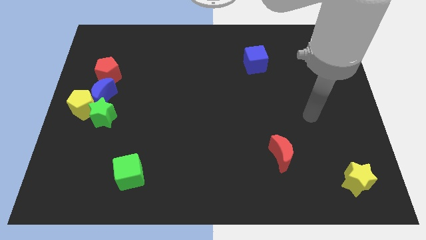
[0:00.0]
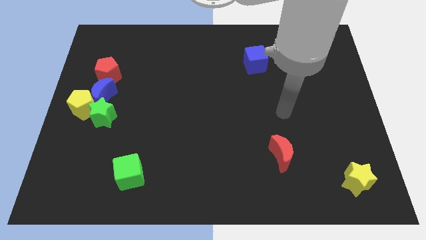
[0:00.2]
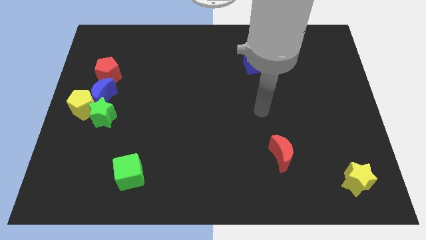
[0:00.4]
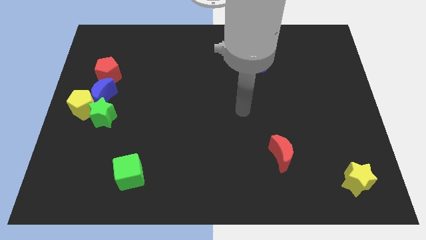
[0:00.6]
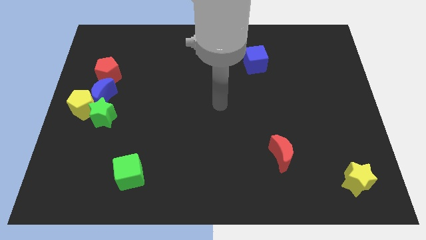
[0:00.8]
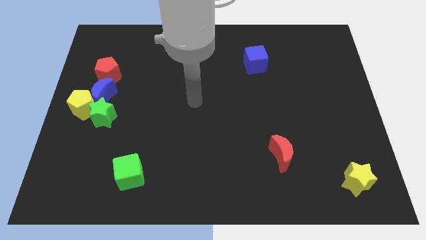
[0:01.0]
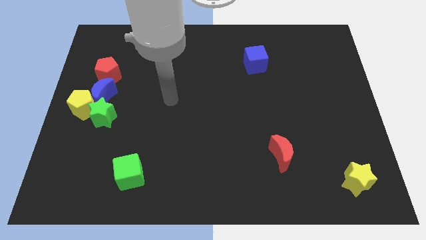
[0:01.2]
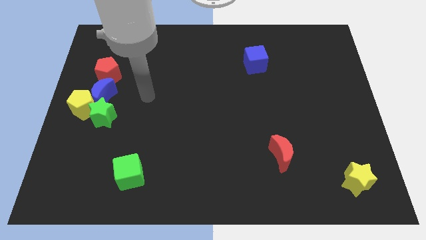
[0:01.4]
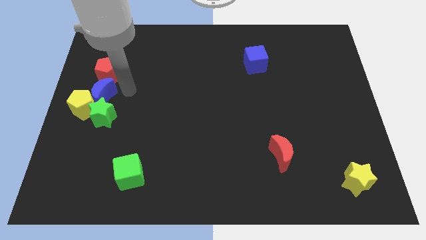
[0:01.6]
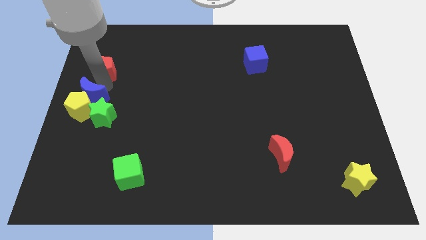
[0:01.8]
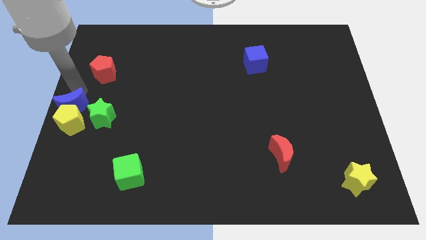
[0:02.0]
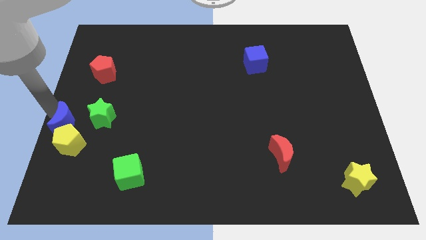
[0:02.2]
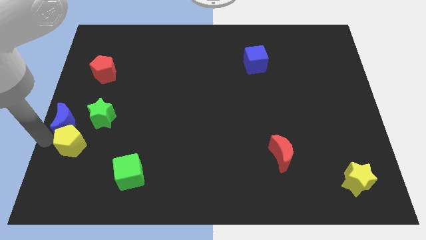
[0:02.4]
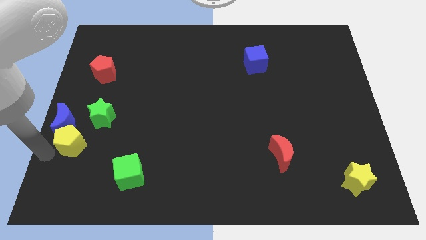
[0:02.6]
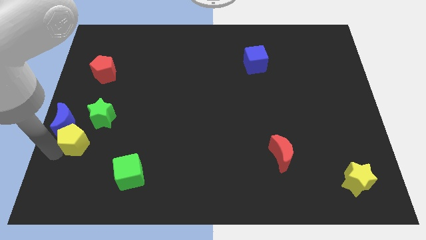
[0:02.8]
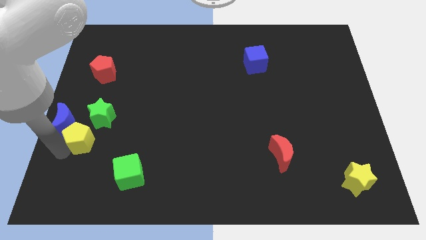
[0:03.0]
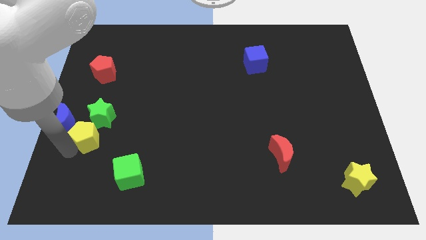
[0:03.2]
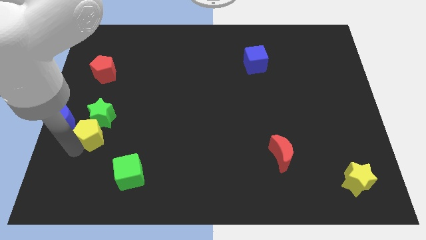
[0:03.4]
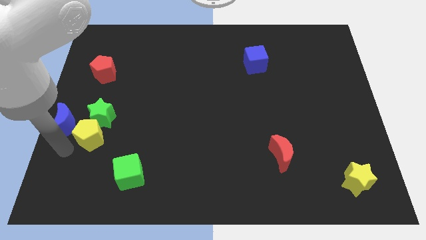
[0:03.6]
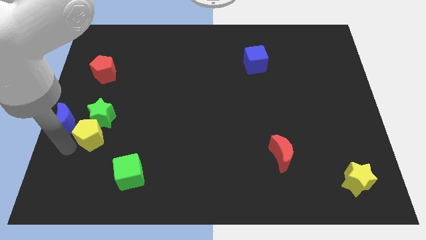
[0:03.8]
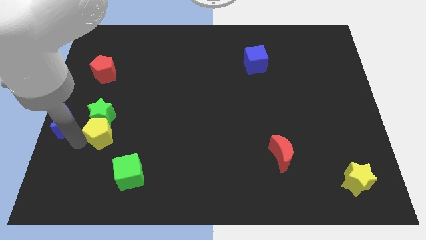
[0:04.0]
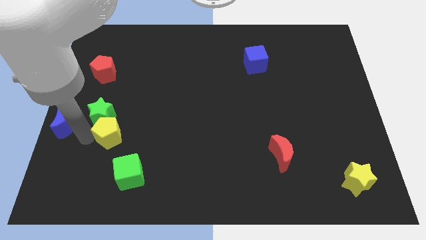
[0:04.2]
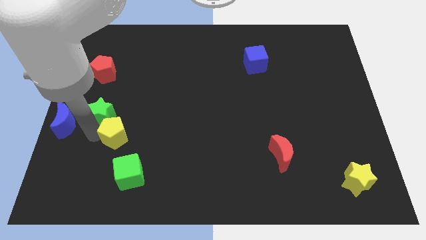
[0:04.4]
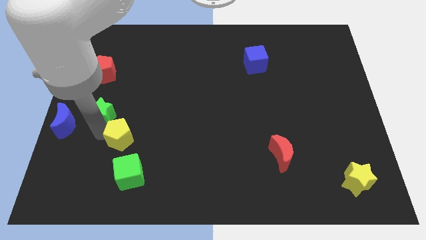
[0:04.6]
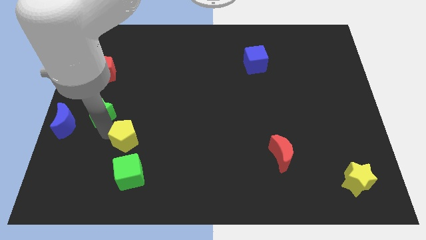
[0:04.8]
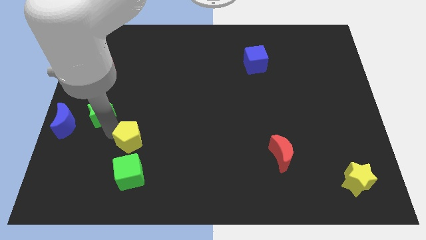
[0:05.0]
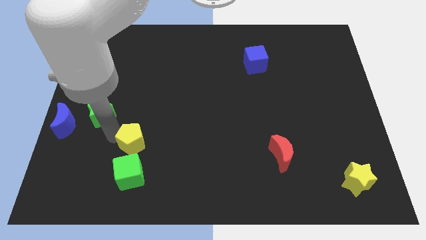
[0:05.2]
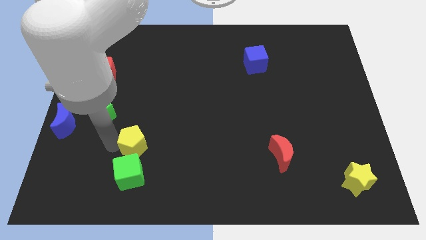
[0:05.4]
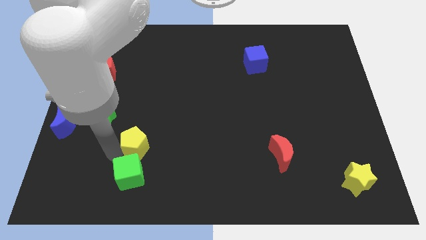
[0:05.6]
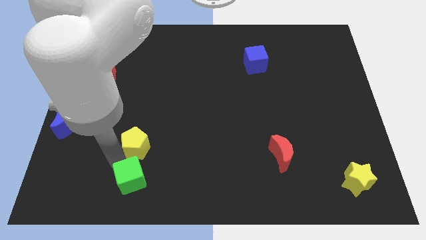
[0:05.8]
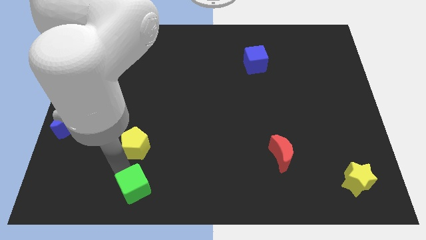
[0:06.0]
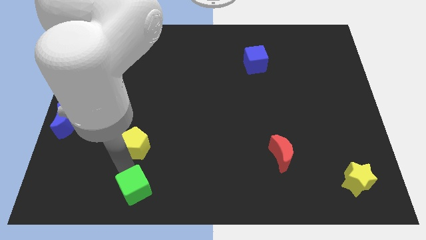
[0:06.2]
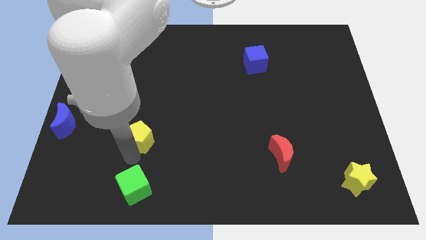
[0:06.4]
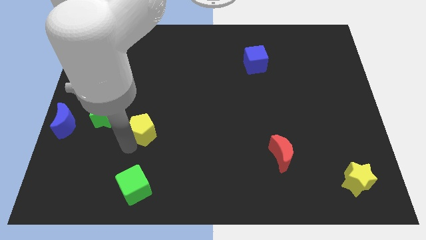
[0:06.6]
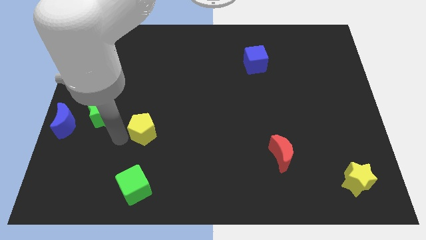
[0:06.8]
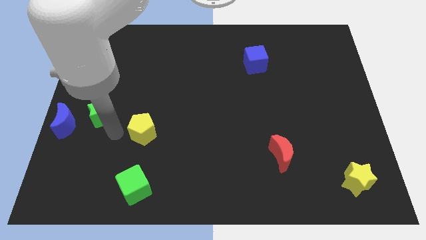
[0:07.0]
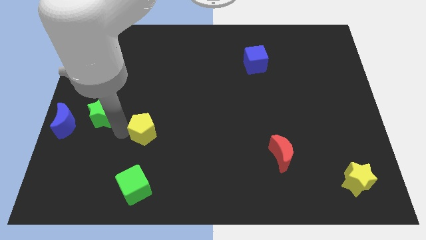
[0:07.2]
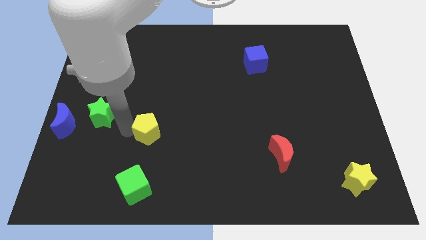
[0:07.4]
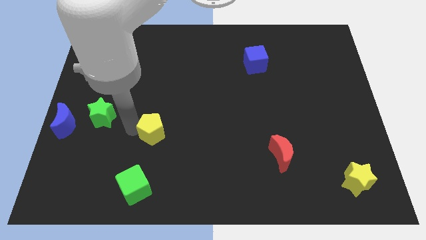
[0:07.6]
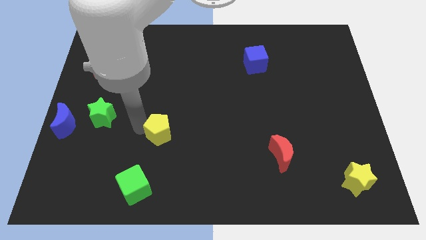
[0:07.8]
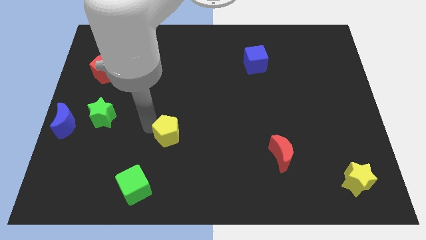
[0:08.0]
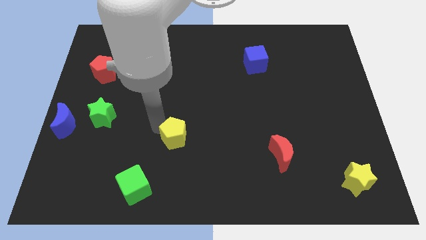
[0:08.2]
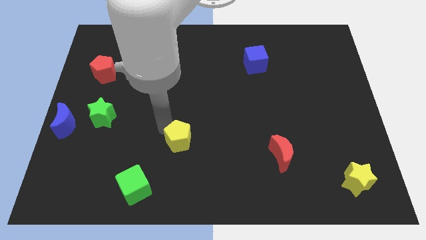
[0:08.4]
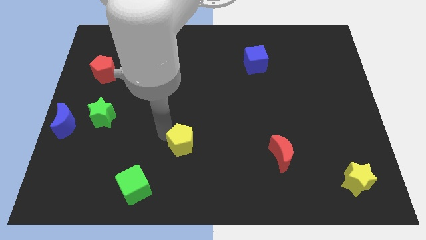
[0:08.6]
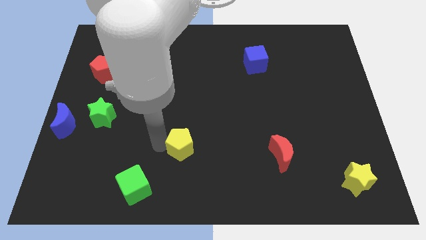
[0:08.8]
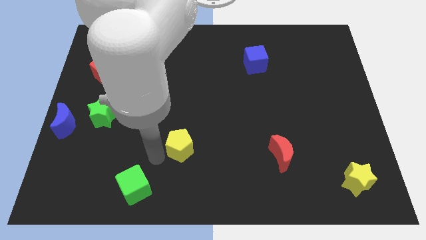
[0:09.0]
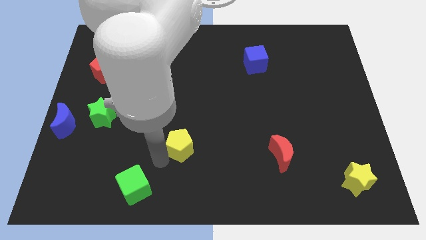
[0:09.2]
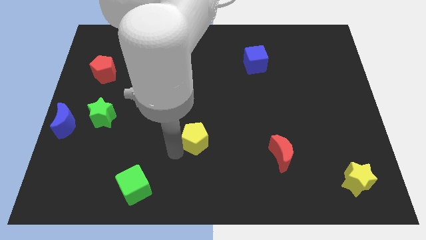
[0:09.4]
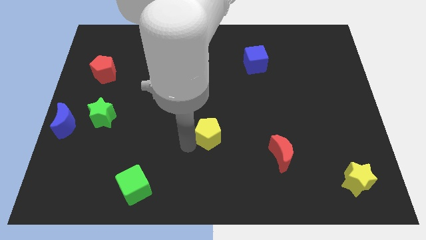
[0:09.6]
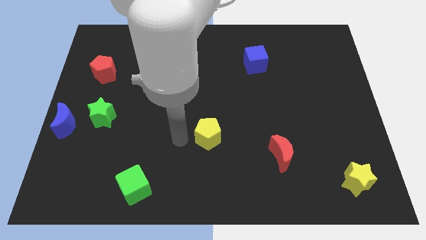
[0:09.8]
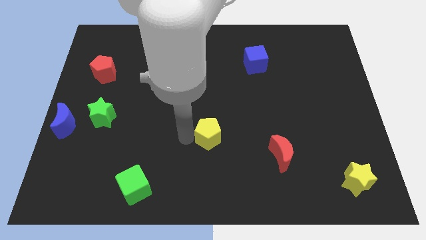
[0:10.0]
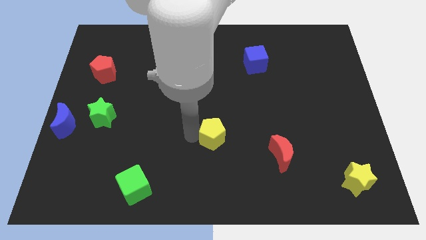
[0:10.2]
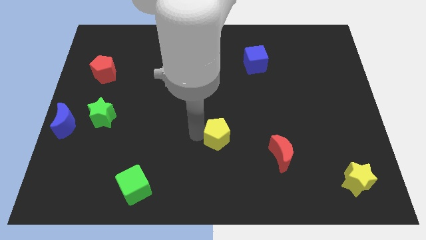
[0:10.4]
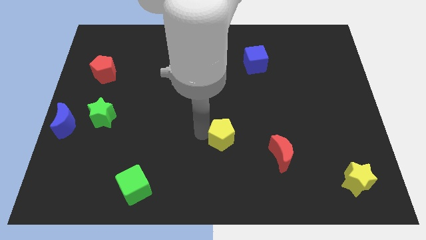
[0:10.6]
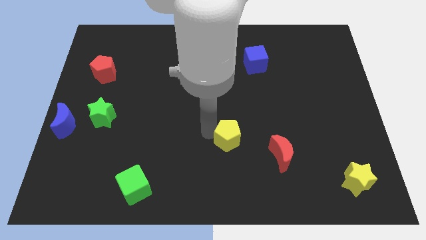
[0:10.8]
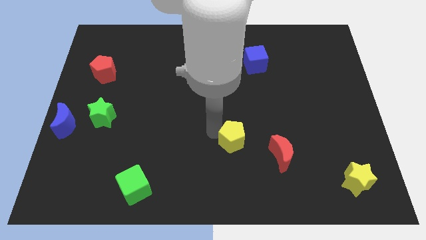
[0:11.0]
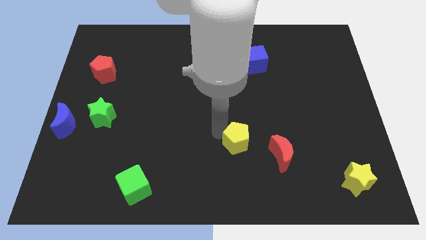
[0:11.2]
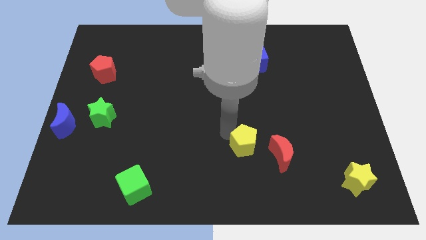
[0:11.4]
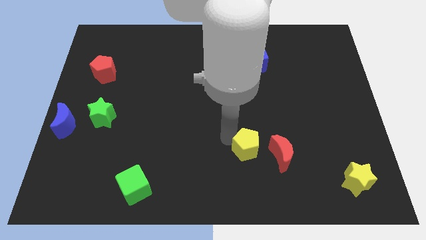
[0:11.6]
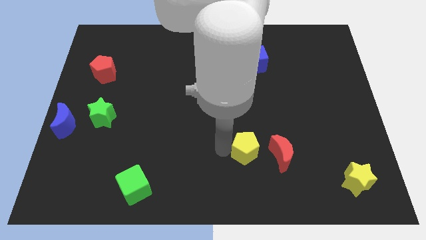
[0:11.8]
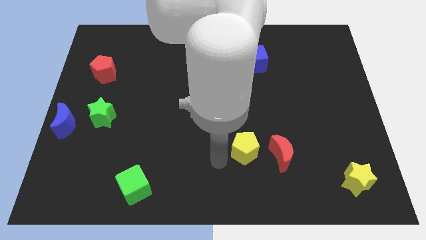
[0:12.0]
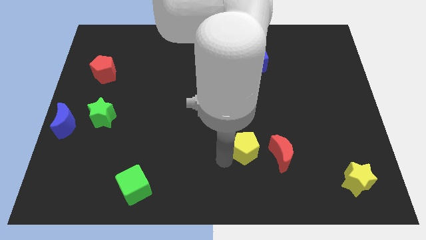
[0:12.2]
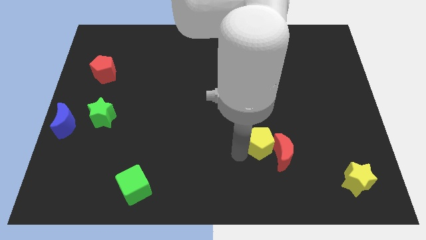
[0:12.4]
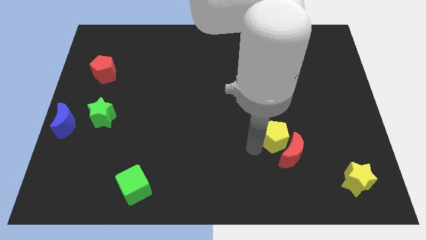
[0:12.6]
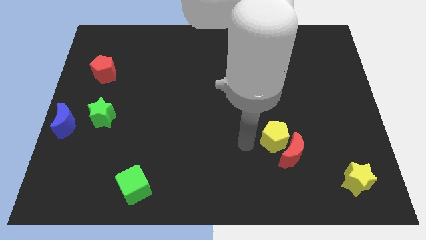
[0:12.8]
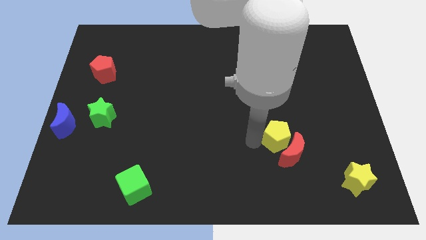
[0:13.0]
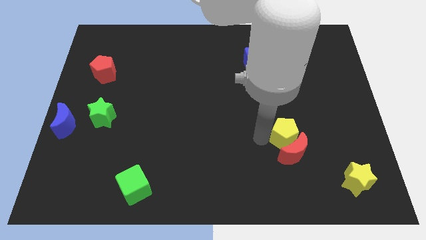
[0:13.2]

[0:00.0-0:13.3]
move the yellow pentagon to the top right side of the red moon
